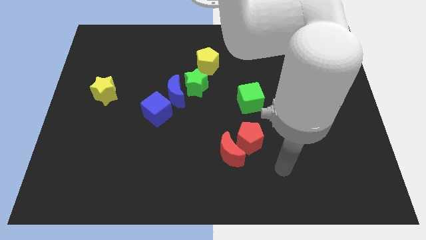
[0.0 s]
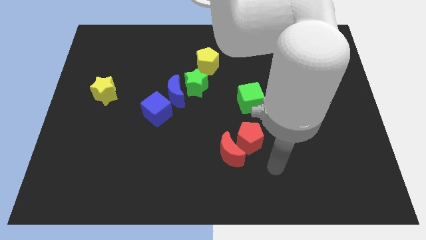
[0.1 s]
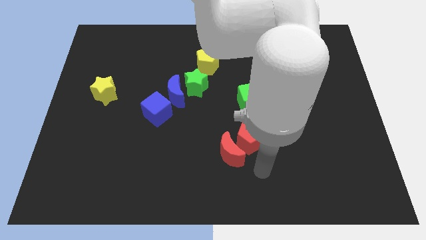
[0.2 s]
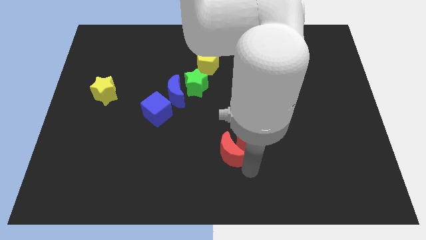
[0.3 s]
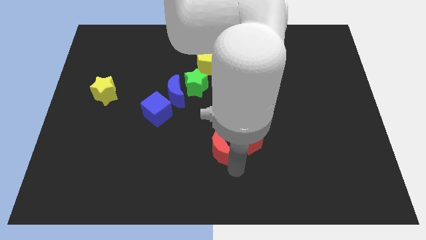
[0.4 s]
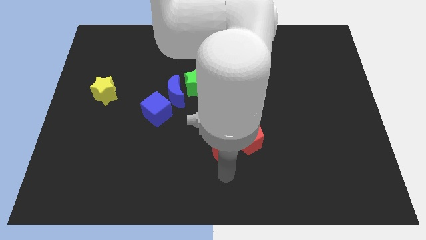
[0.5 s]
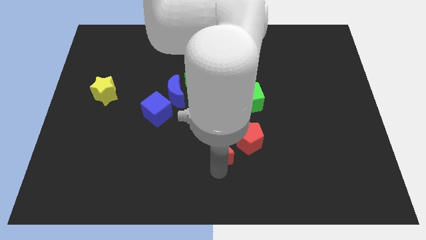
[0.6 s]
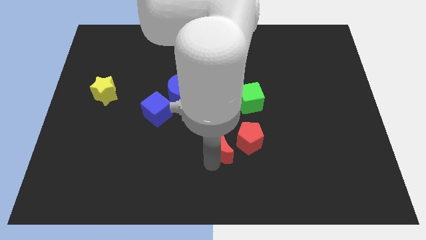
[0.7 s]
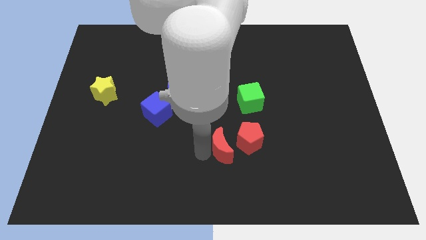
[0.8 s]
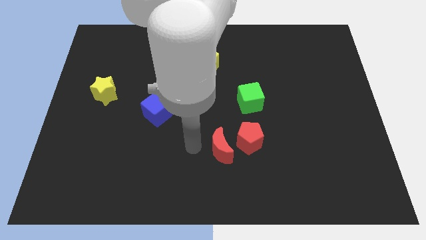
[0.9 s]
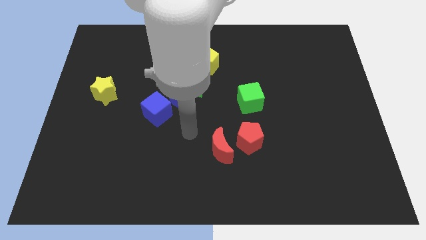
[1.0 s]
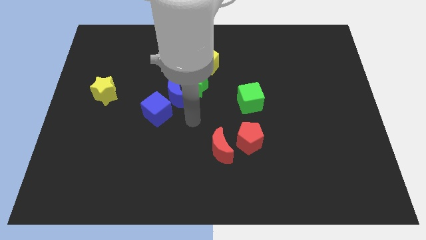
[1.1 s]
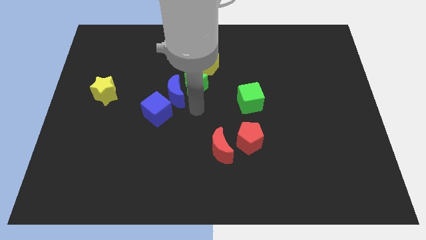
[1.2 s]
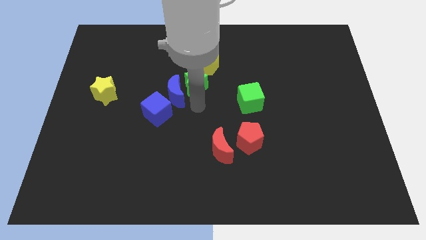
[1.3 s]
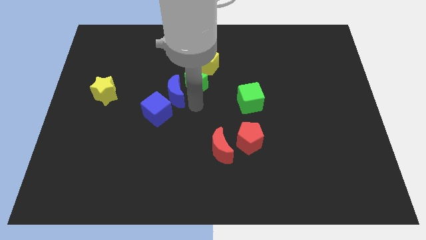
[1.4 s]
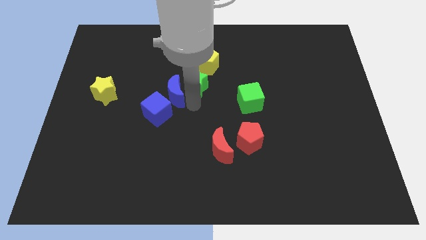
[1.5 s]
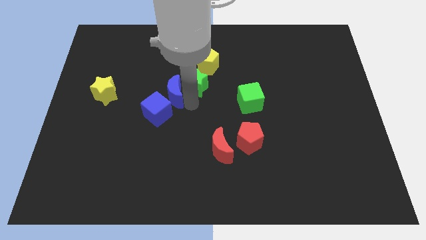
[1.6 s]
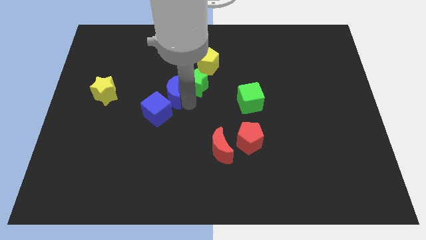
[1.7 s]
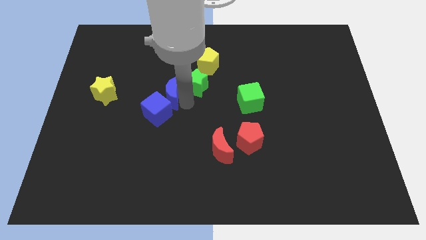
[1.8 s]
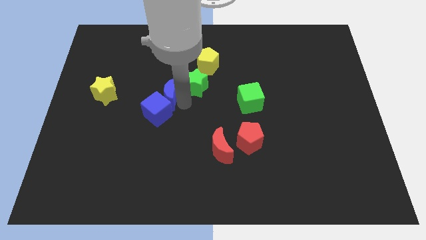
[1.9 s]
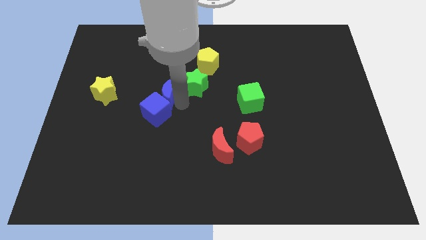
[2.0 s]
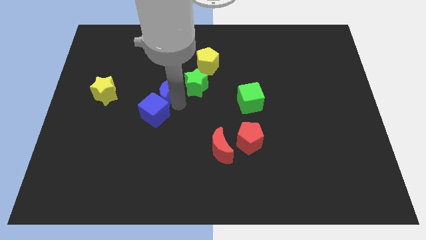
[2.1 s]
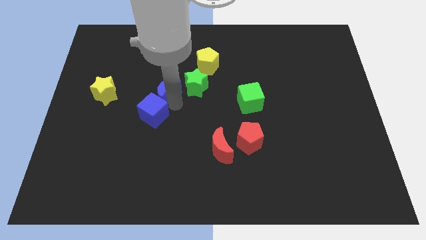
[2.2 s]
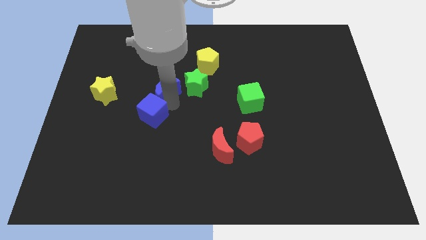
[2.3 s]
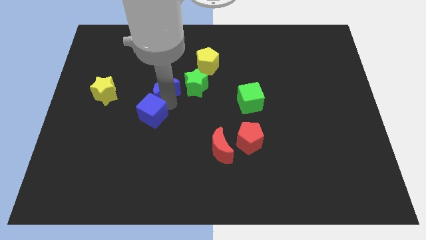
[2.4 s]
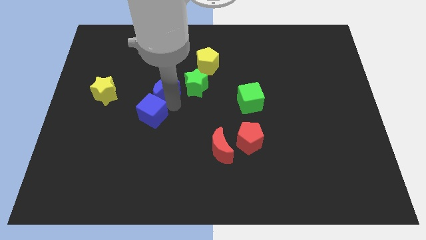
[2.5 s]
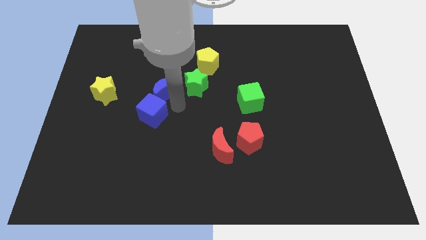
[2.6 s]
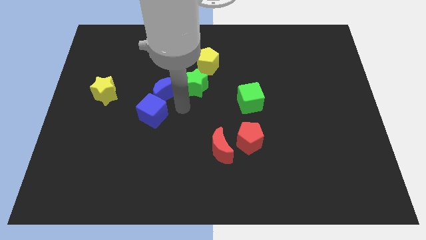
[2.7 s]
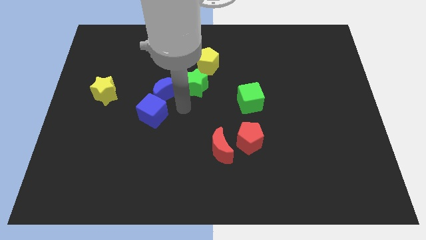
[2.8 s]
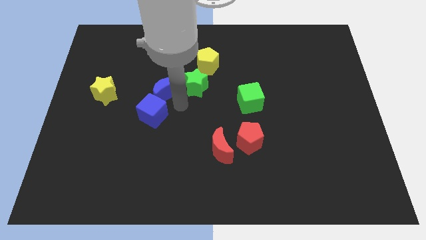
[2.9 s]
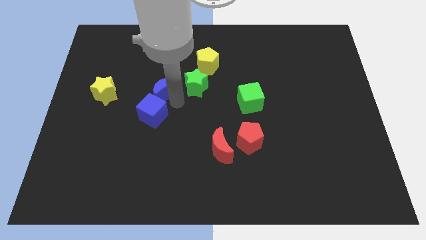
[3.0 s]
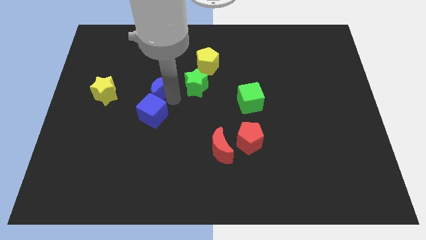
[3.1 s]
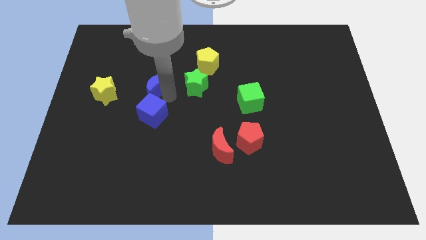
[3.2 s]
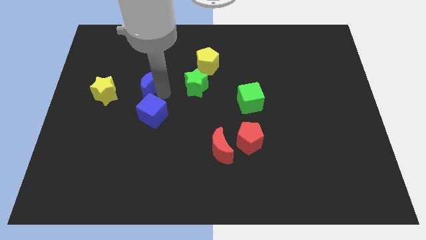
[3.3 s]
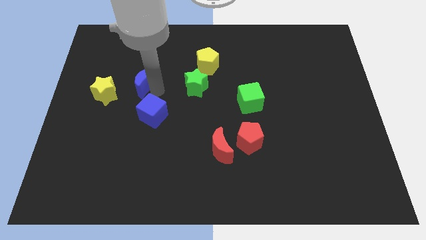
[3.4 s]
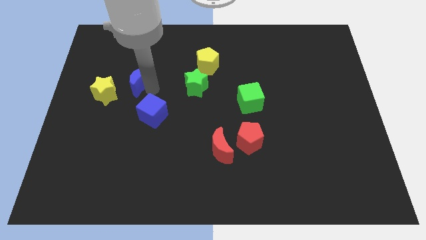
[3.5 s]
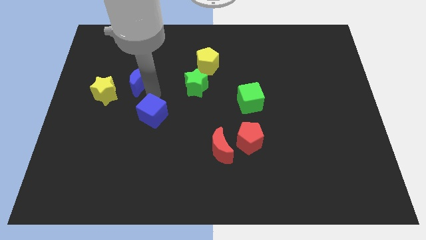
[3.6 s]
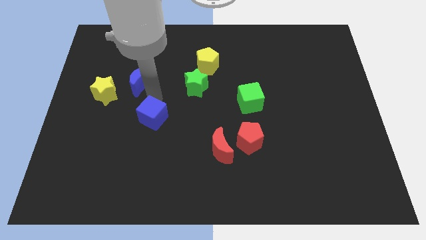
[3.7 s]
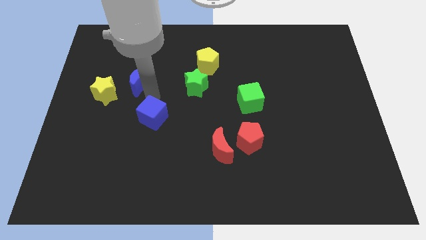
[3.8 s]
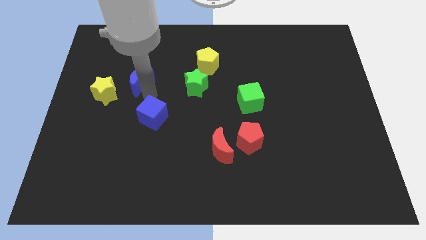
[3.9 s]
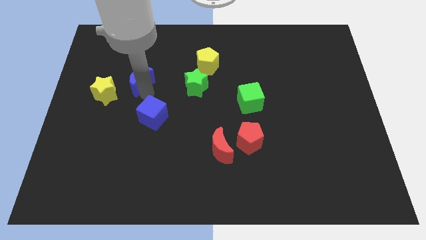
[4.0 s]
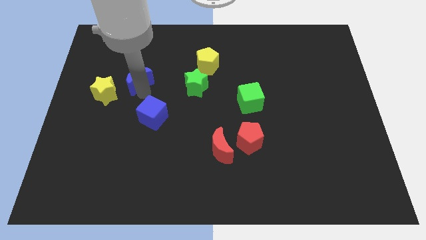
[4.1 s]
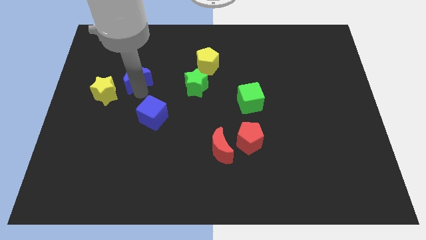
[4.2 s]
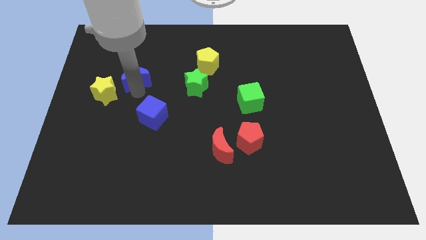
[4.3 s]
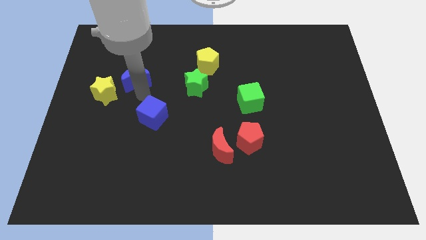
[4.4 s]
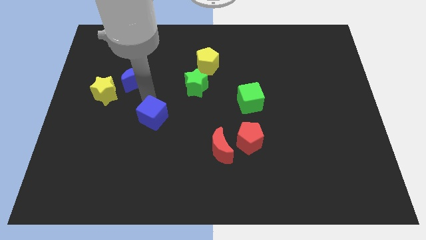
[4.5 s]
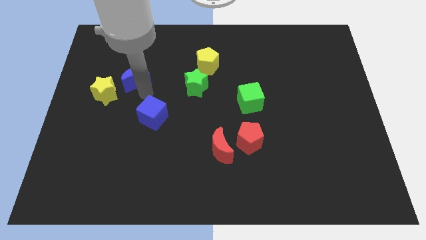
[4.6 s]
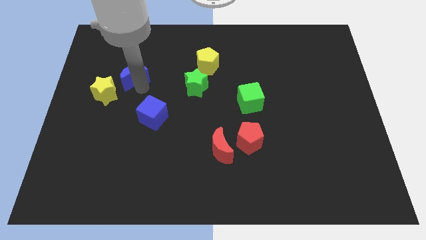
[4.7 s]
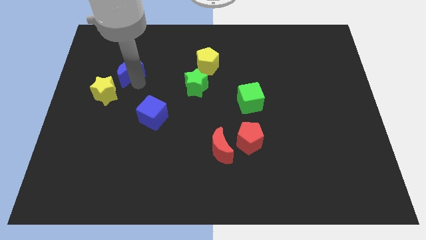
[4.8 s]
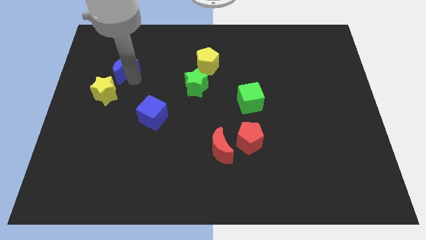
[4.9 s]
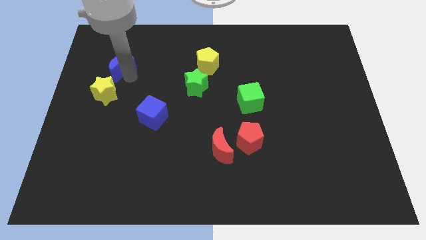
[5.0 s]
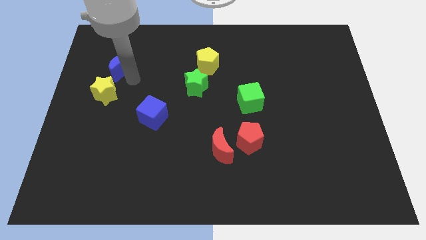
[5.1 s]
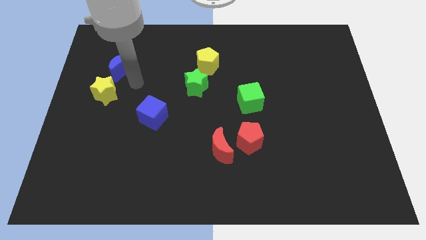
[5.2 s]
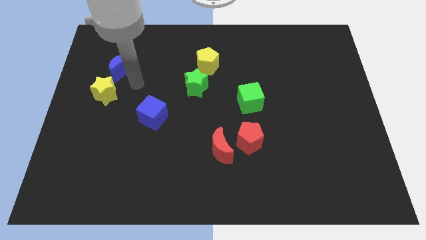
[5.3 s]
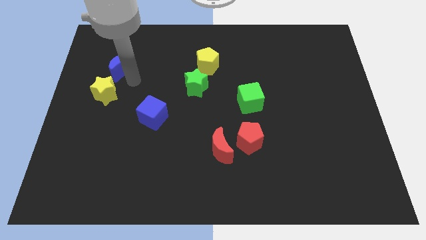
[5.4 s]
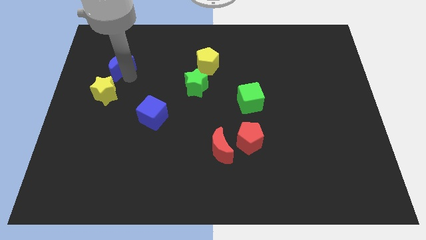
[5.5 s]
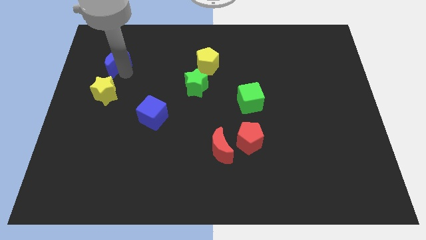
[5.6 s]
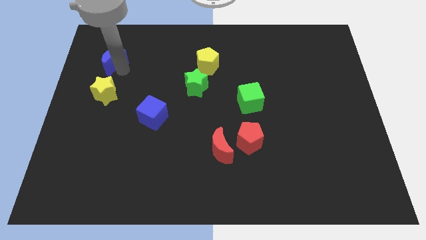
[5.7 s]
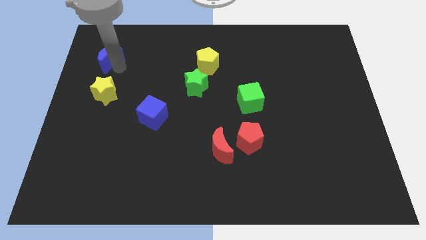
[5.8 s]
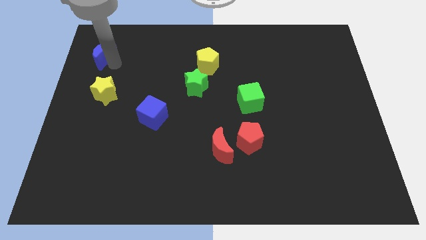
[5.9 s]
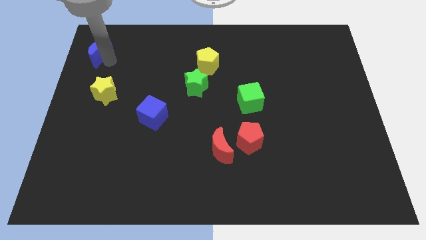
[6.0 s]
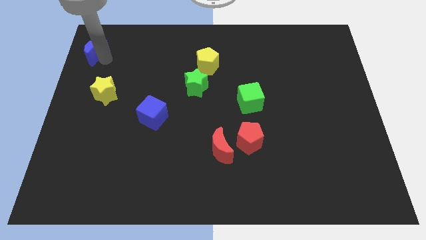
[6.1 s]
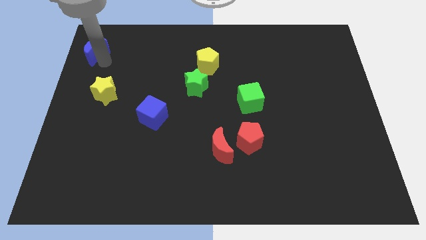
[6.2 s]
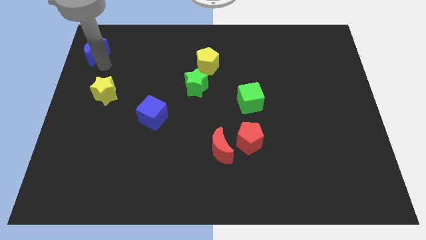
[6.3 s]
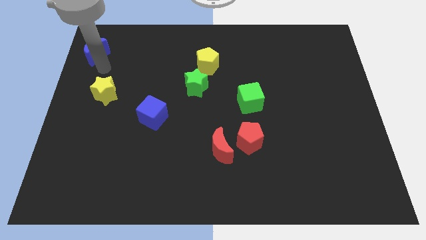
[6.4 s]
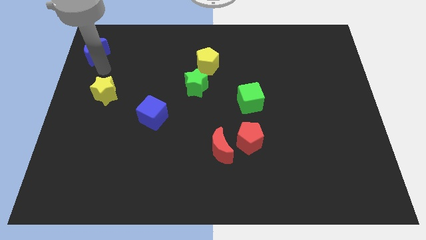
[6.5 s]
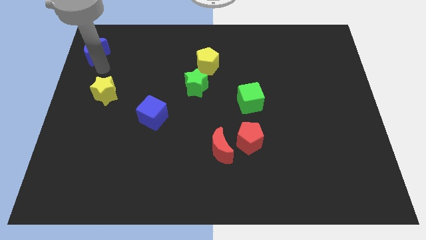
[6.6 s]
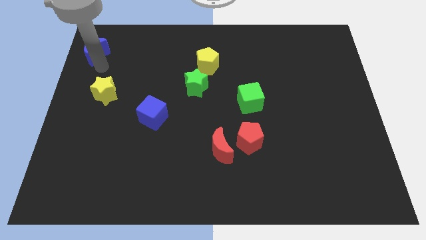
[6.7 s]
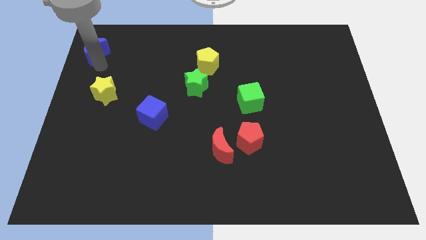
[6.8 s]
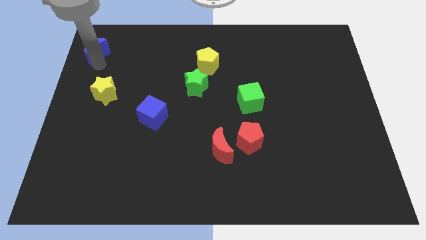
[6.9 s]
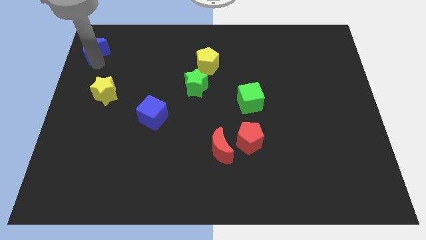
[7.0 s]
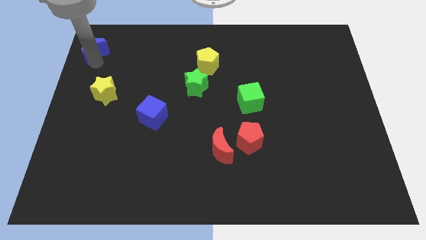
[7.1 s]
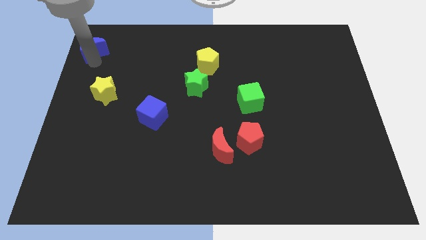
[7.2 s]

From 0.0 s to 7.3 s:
push the blue moon to the top left of the board
